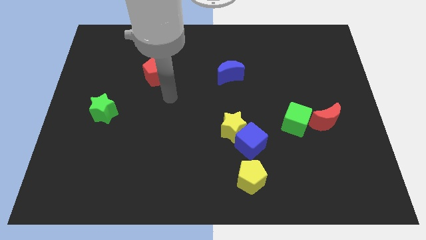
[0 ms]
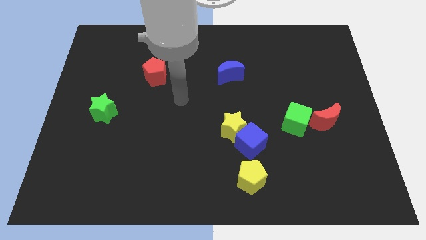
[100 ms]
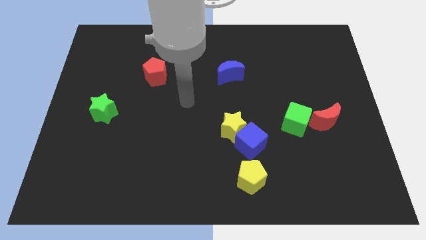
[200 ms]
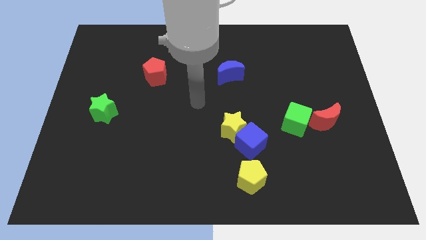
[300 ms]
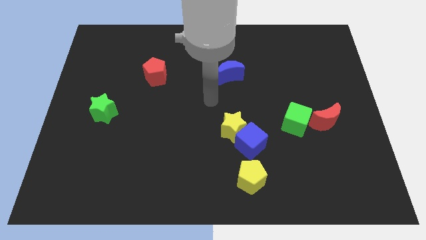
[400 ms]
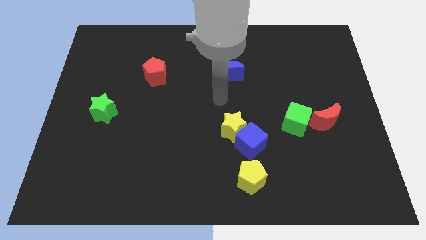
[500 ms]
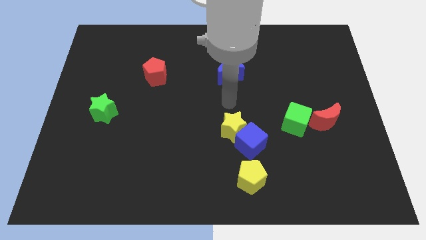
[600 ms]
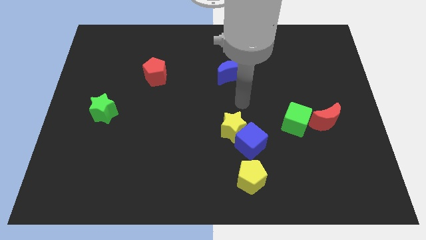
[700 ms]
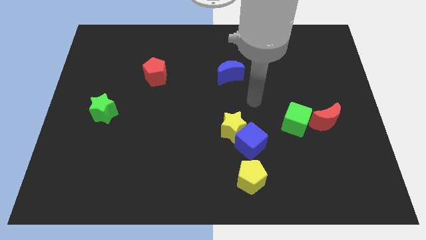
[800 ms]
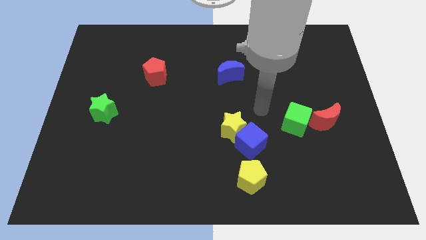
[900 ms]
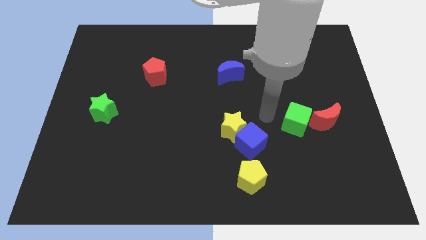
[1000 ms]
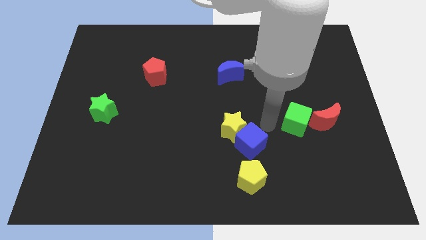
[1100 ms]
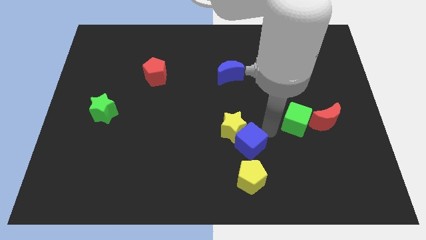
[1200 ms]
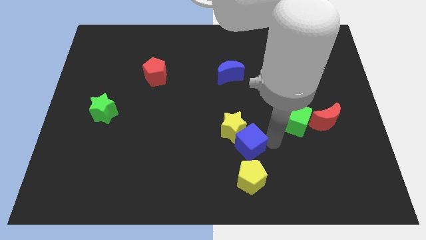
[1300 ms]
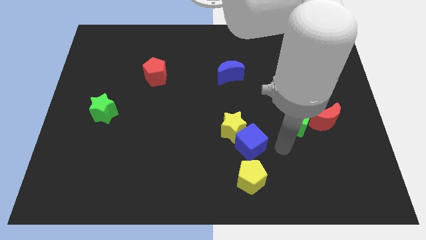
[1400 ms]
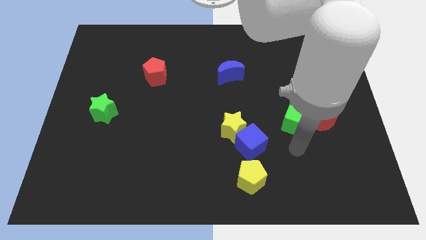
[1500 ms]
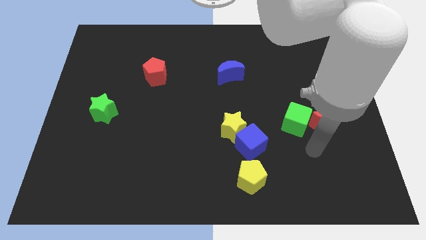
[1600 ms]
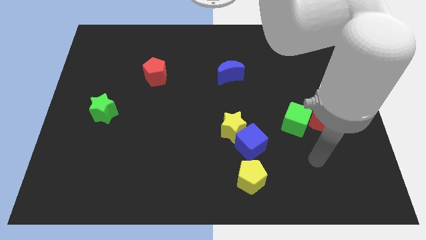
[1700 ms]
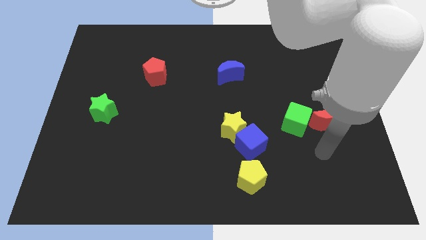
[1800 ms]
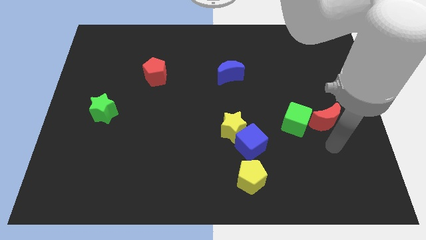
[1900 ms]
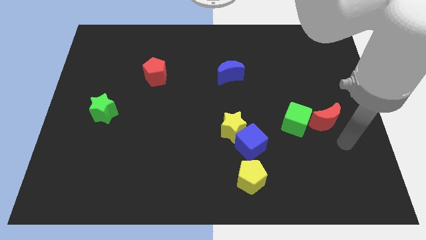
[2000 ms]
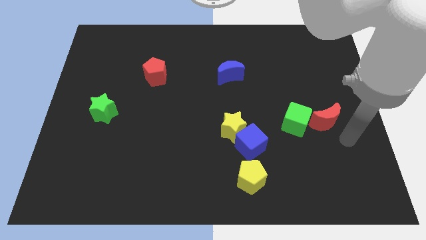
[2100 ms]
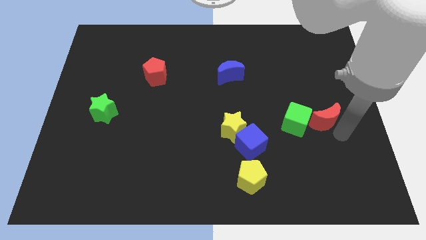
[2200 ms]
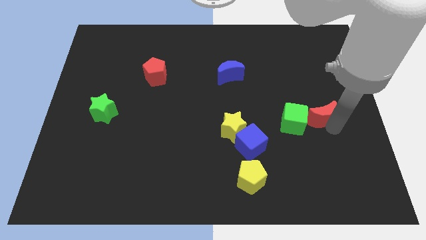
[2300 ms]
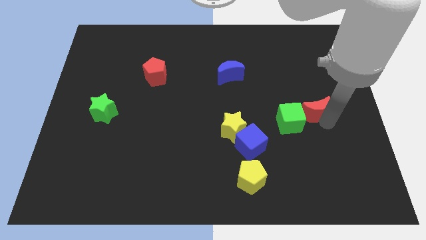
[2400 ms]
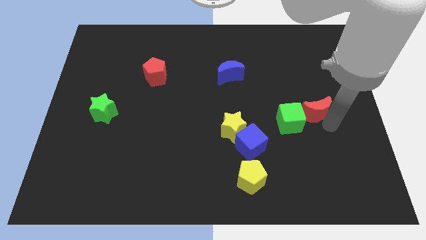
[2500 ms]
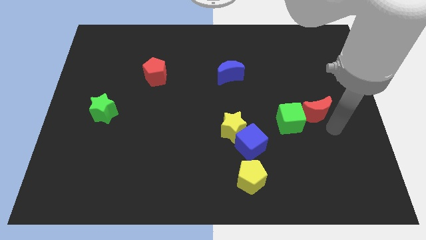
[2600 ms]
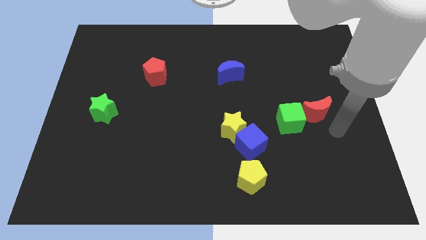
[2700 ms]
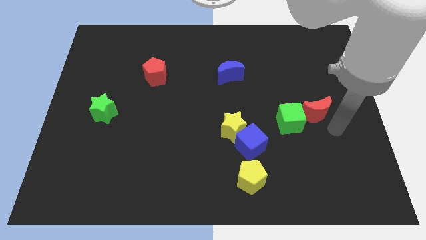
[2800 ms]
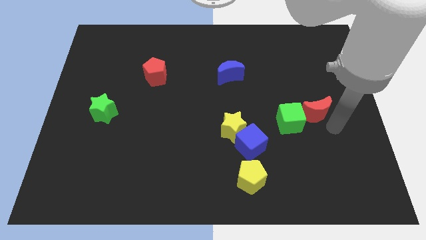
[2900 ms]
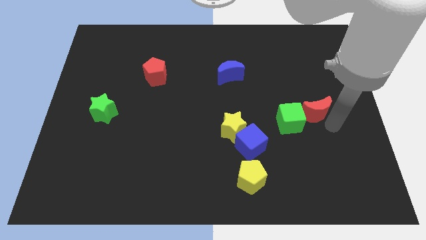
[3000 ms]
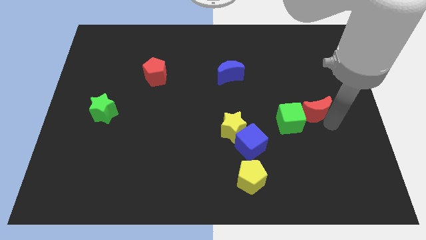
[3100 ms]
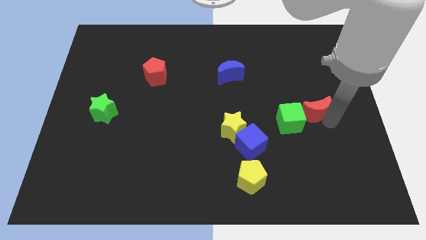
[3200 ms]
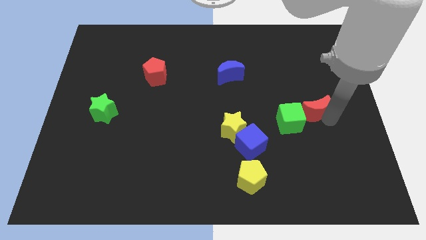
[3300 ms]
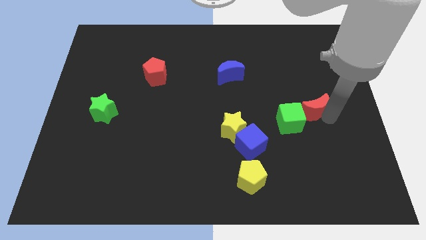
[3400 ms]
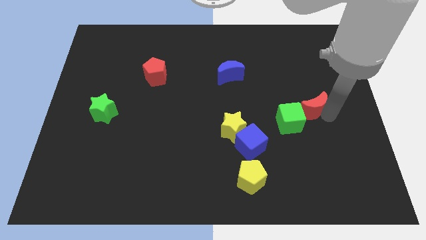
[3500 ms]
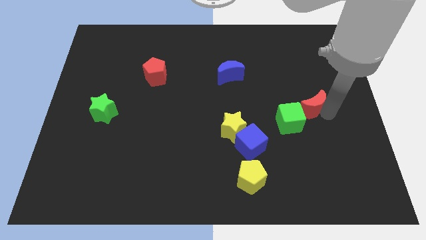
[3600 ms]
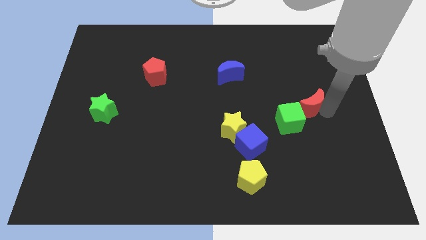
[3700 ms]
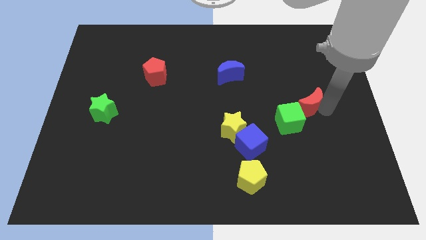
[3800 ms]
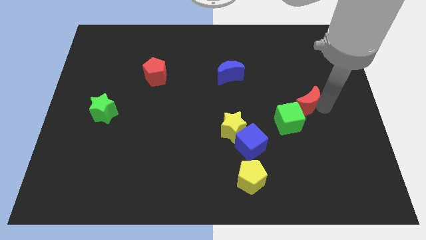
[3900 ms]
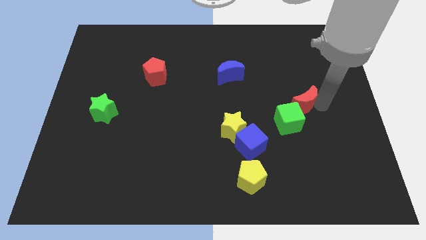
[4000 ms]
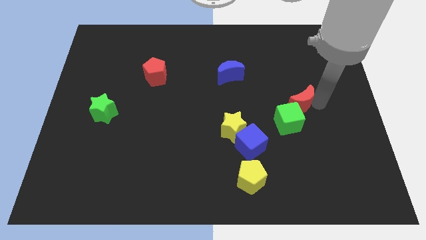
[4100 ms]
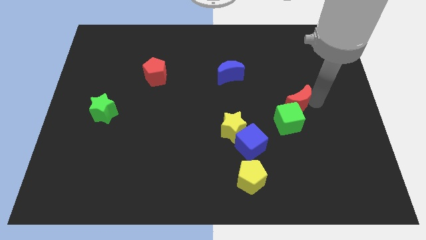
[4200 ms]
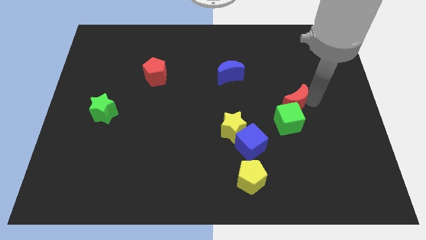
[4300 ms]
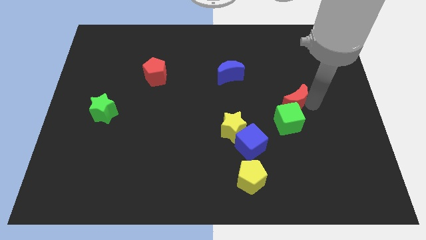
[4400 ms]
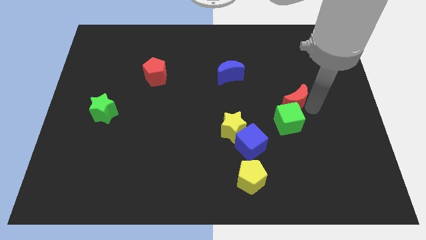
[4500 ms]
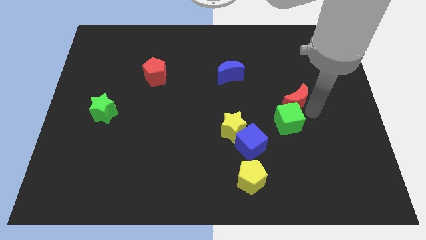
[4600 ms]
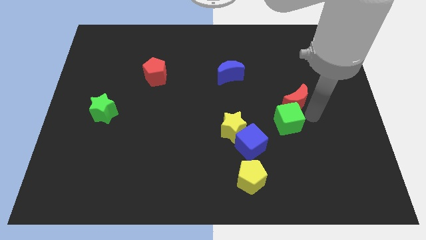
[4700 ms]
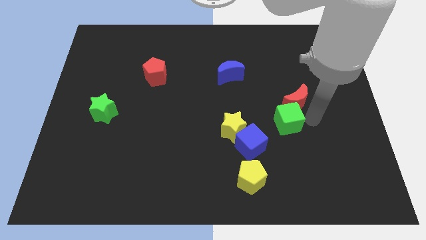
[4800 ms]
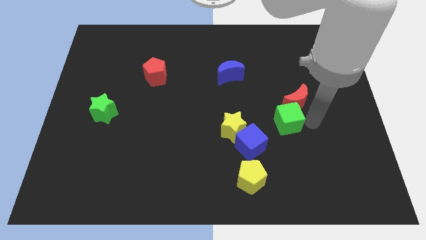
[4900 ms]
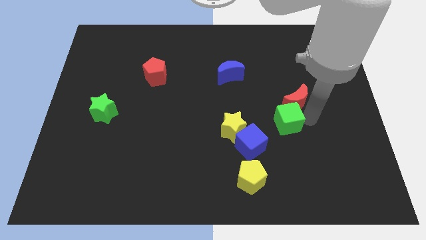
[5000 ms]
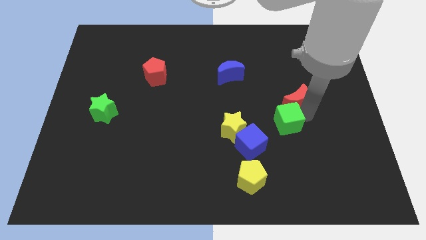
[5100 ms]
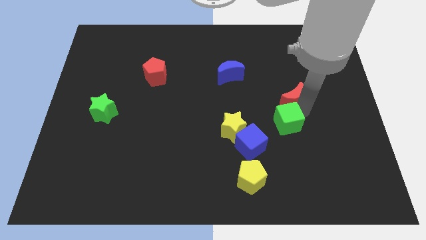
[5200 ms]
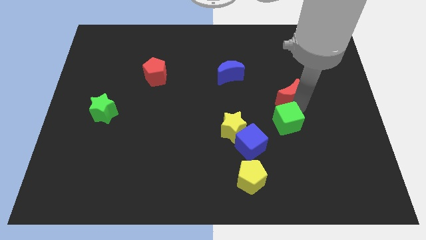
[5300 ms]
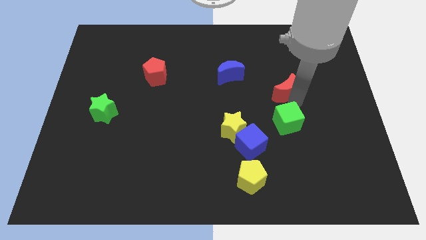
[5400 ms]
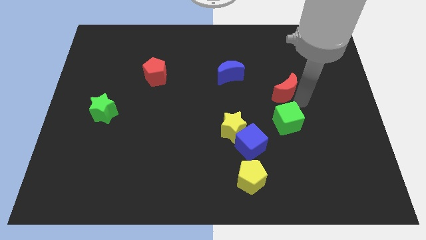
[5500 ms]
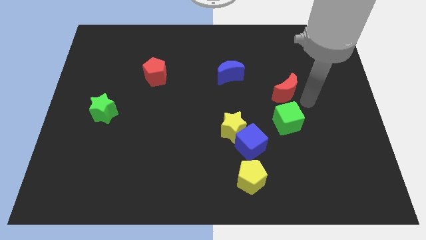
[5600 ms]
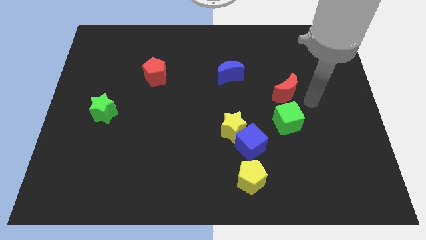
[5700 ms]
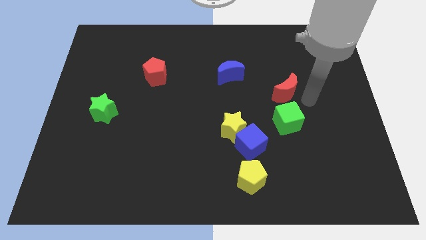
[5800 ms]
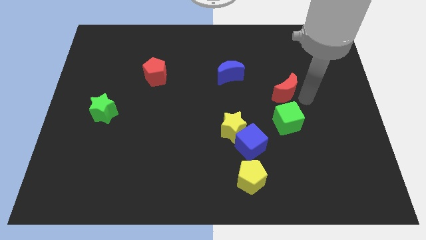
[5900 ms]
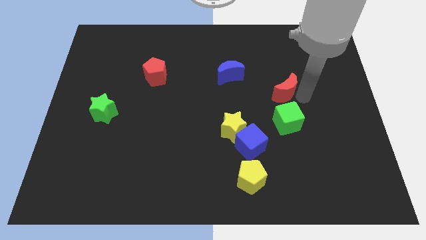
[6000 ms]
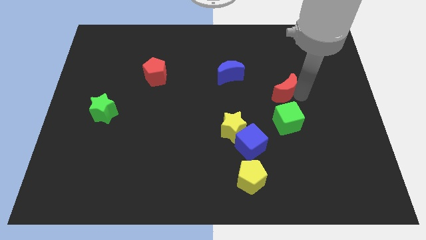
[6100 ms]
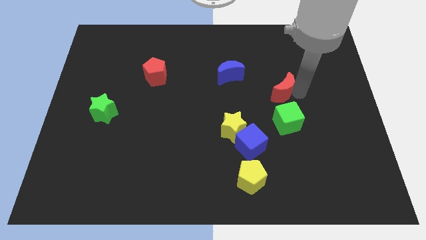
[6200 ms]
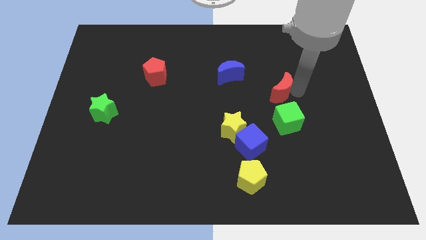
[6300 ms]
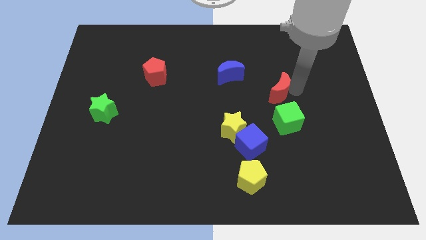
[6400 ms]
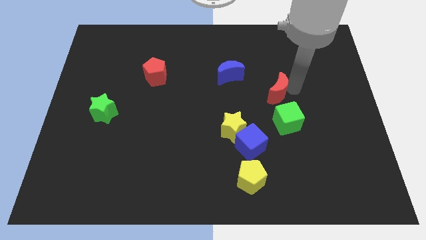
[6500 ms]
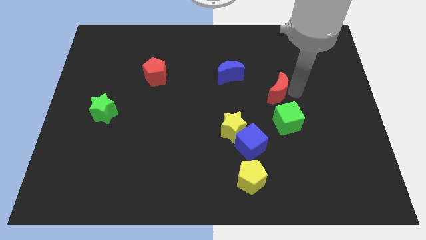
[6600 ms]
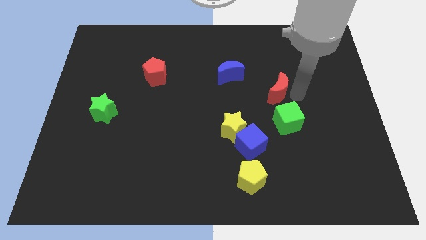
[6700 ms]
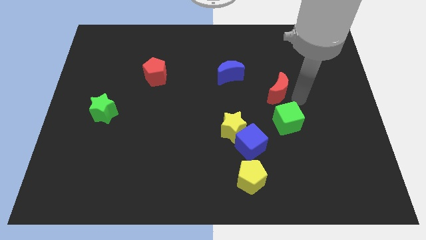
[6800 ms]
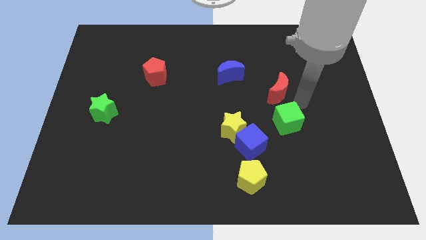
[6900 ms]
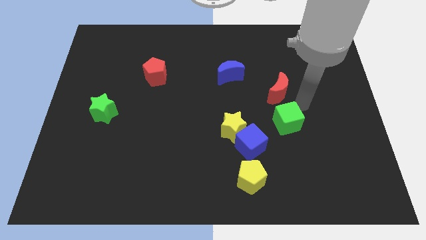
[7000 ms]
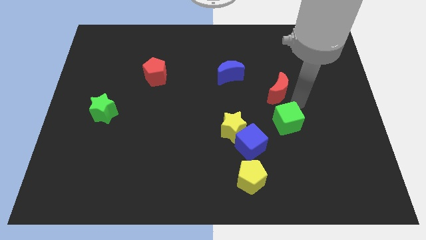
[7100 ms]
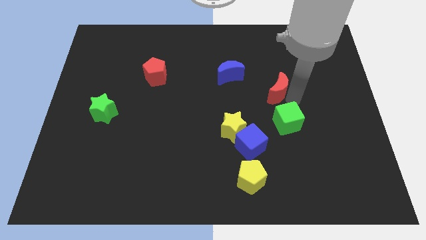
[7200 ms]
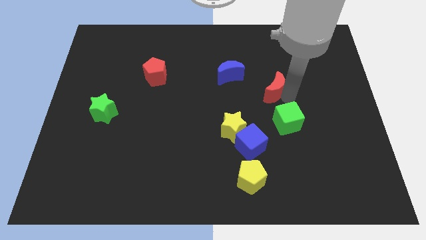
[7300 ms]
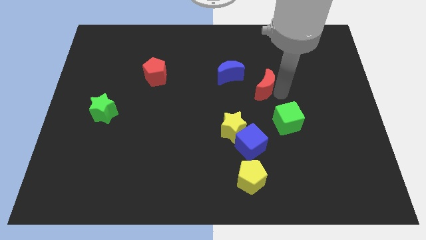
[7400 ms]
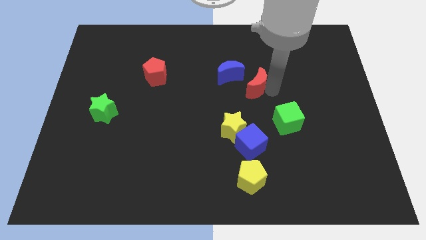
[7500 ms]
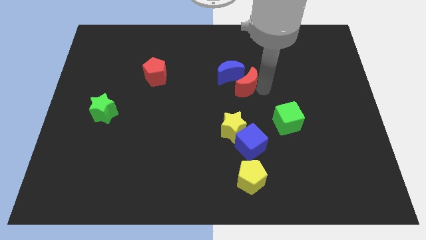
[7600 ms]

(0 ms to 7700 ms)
move the red moon next to the blue moon
